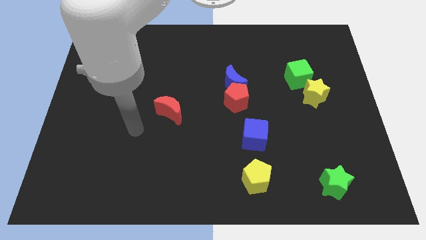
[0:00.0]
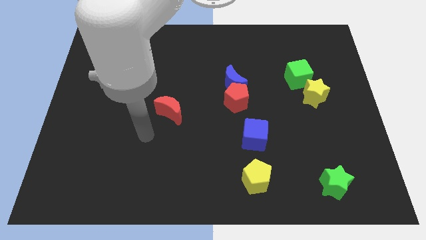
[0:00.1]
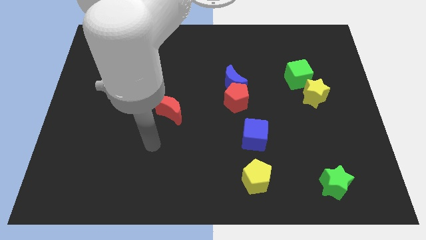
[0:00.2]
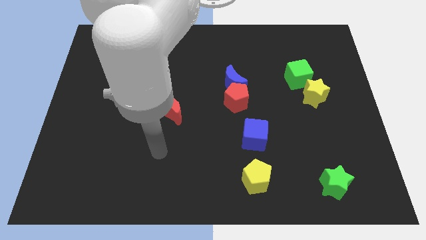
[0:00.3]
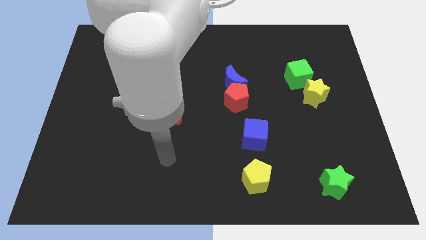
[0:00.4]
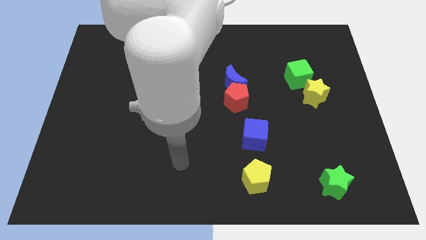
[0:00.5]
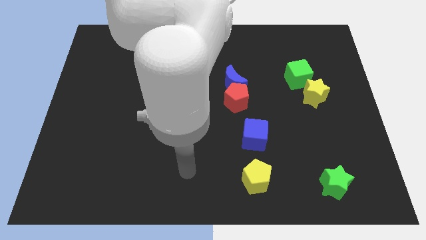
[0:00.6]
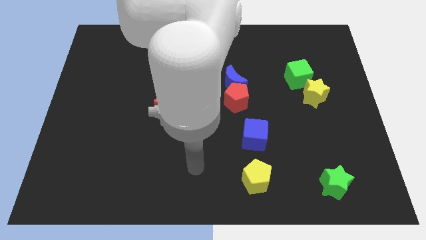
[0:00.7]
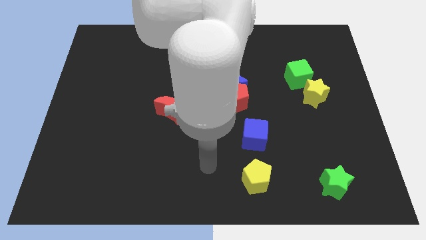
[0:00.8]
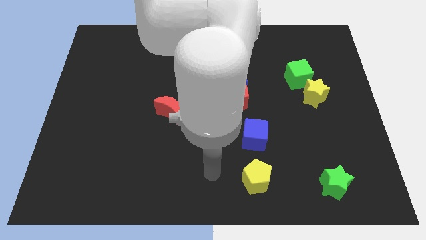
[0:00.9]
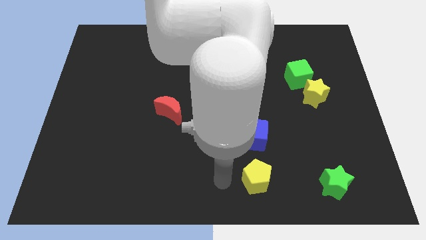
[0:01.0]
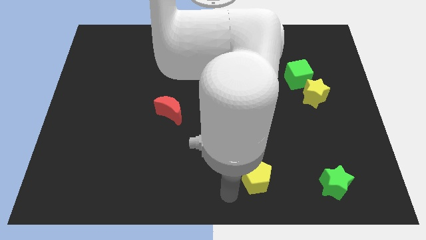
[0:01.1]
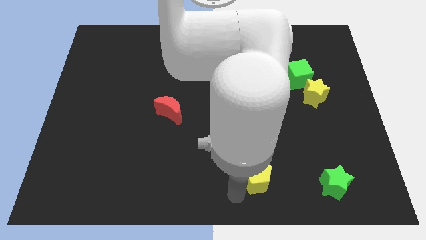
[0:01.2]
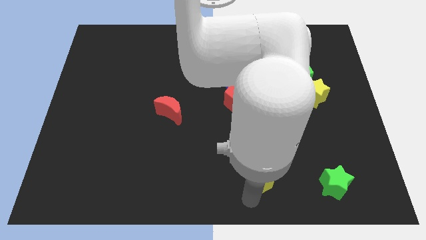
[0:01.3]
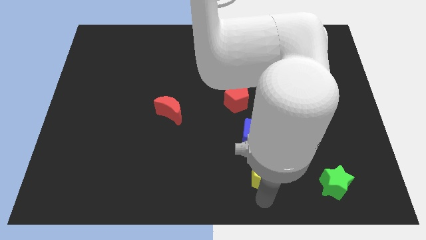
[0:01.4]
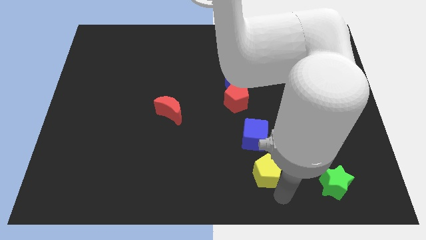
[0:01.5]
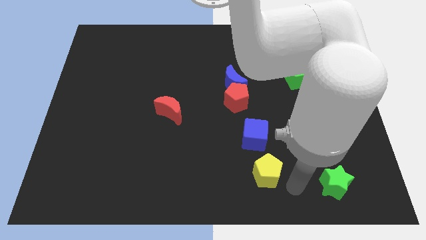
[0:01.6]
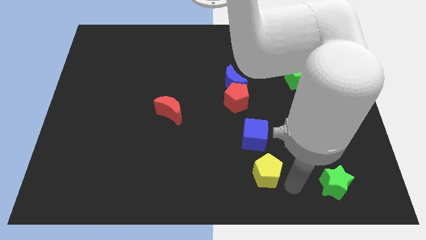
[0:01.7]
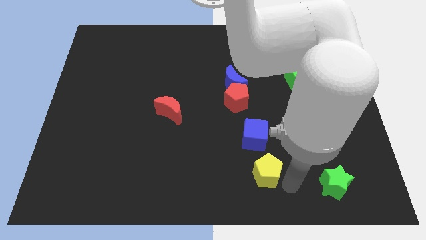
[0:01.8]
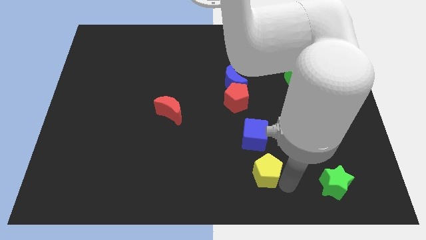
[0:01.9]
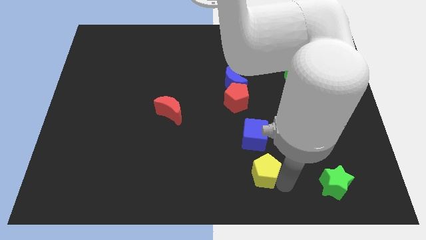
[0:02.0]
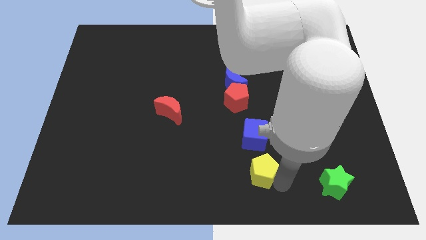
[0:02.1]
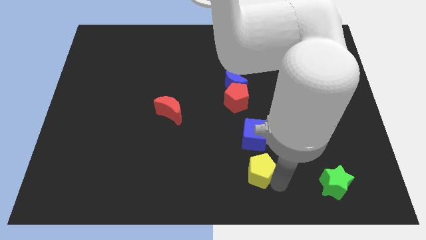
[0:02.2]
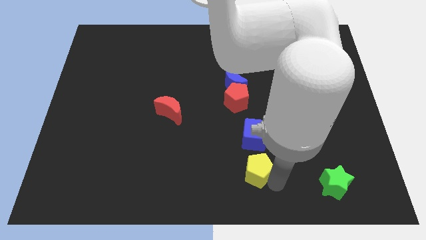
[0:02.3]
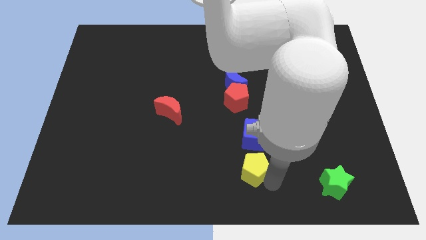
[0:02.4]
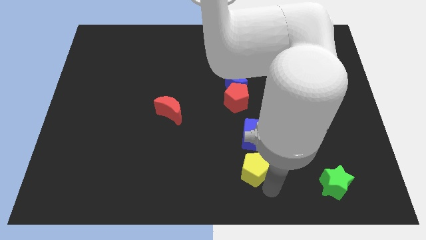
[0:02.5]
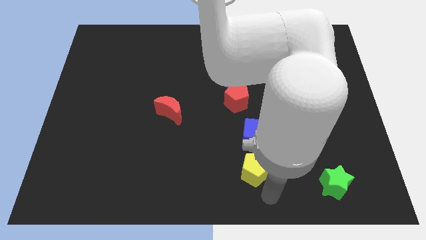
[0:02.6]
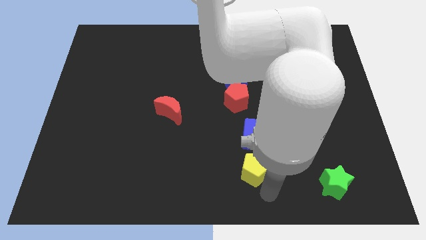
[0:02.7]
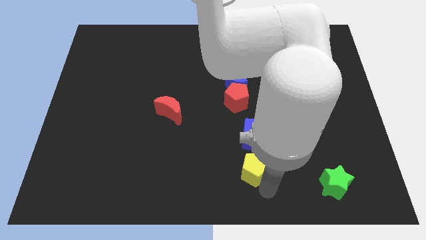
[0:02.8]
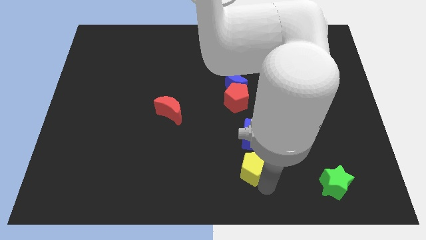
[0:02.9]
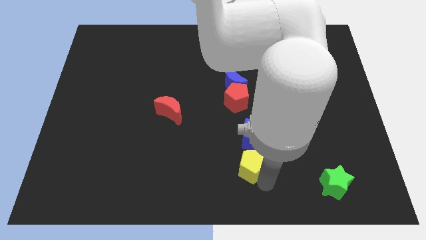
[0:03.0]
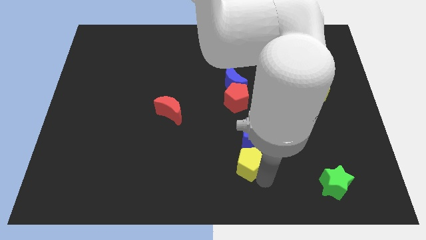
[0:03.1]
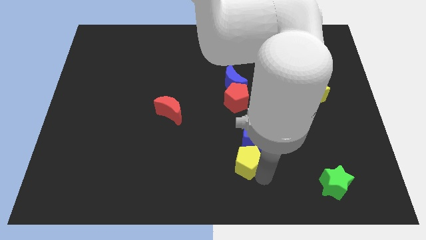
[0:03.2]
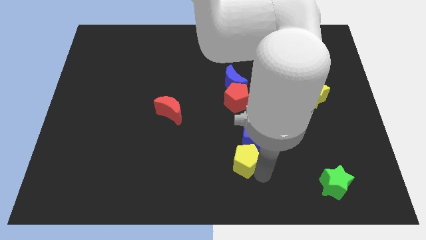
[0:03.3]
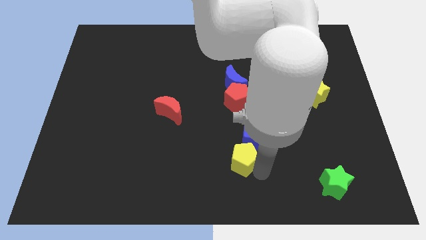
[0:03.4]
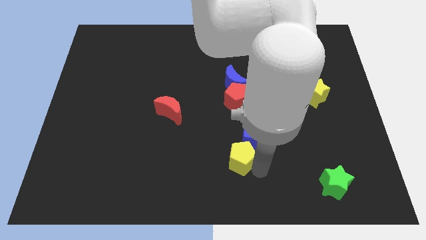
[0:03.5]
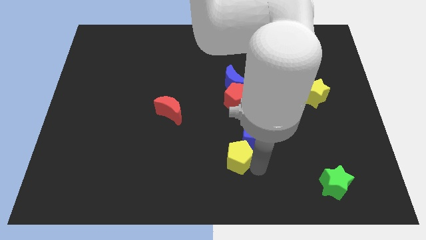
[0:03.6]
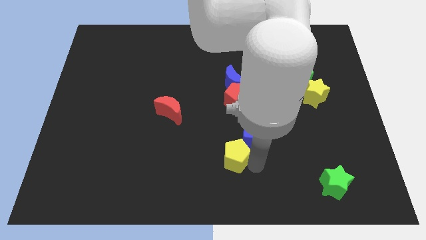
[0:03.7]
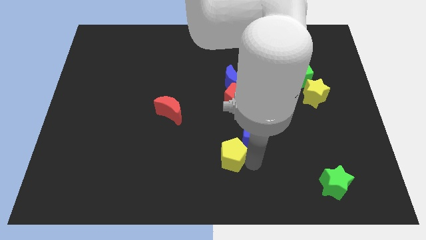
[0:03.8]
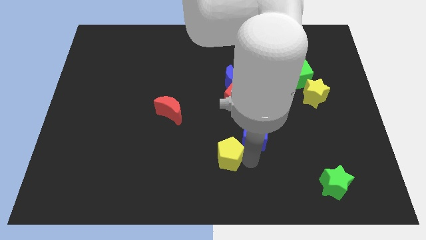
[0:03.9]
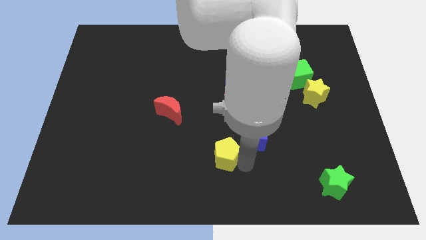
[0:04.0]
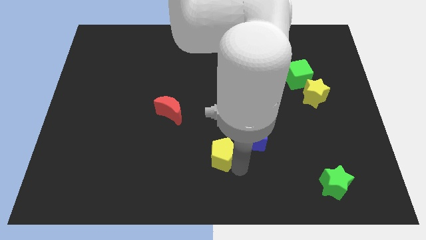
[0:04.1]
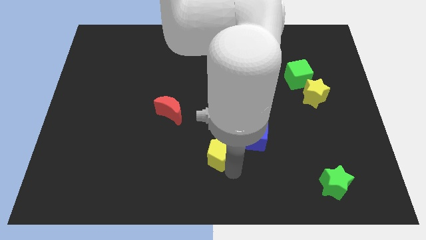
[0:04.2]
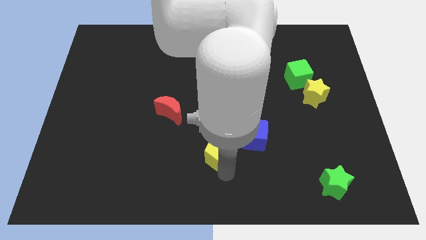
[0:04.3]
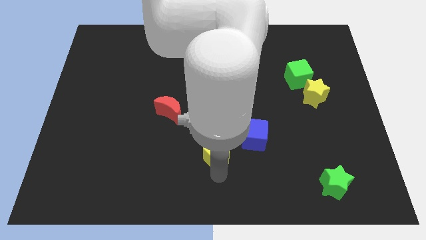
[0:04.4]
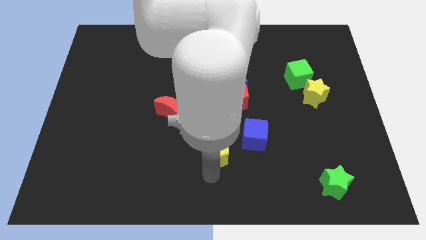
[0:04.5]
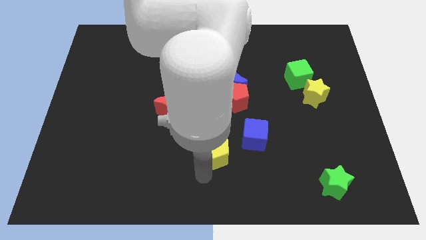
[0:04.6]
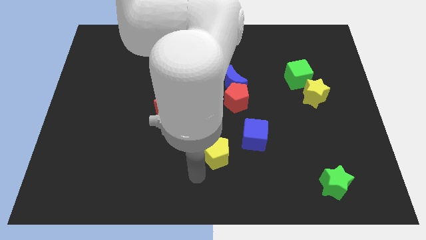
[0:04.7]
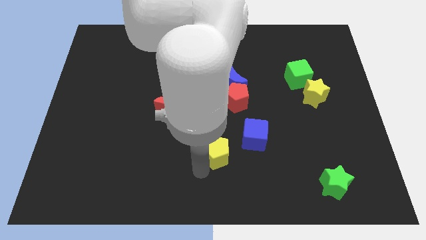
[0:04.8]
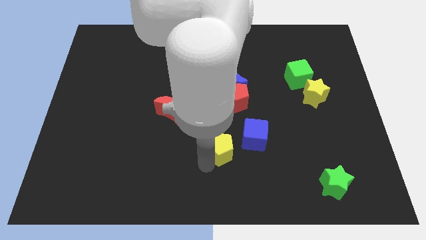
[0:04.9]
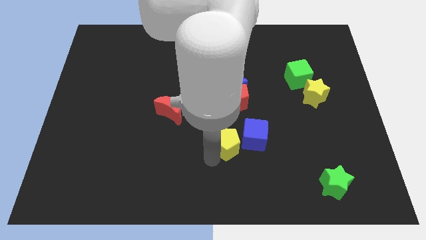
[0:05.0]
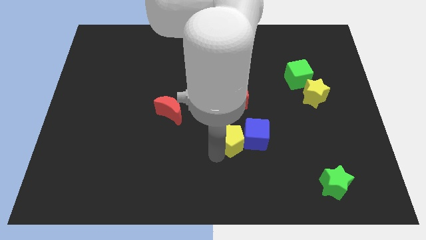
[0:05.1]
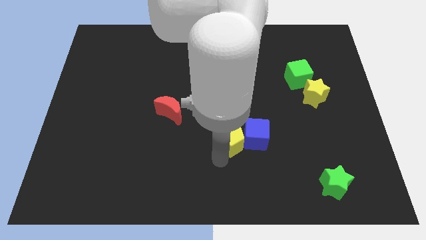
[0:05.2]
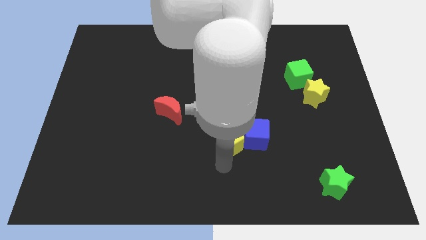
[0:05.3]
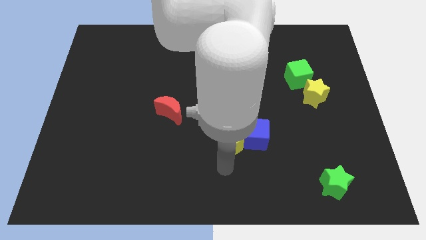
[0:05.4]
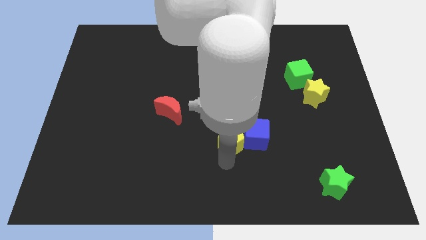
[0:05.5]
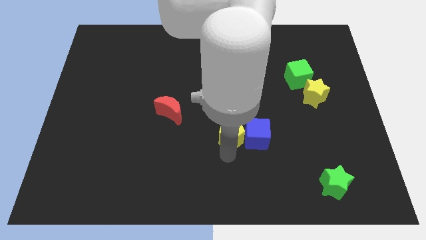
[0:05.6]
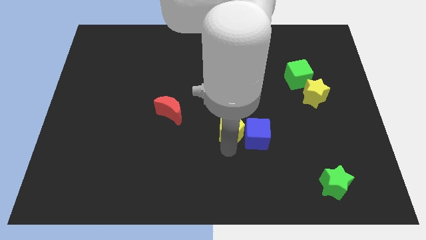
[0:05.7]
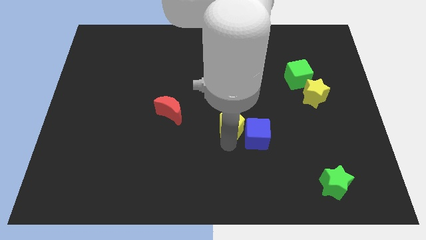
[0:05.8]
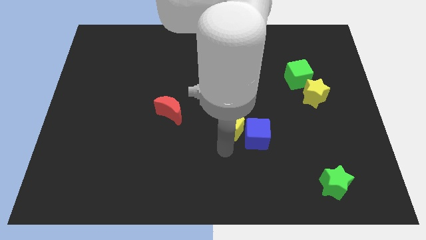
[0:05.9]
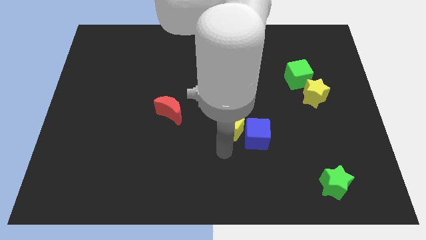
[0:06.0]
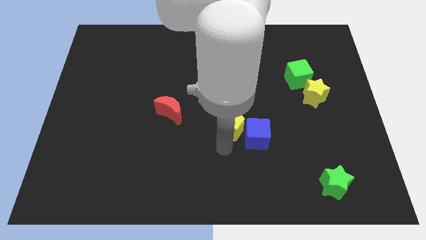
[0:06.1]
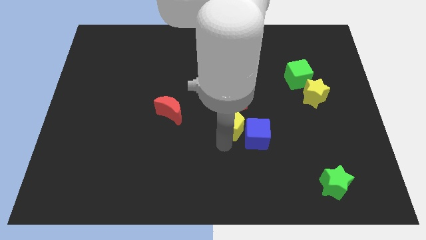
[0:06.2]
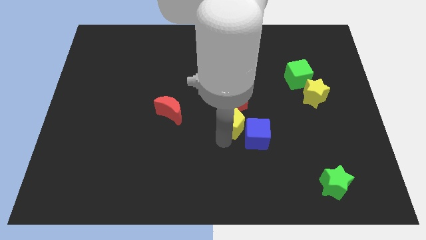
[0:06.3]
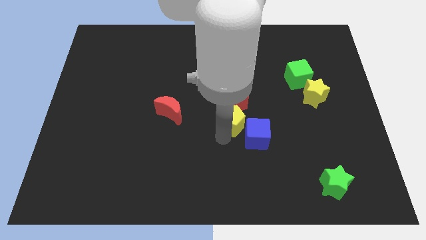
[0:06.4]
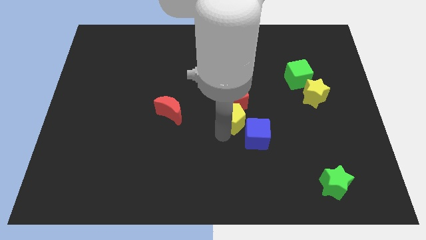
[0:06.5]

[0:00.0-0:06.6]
put the yellow pentagon close to the red pentagon

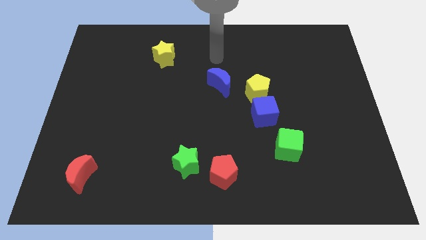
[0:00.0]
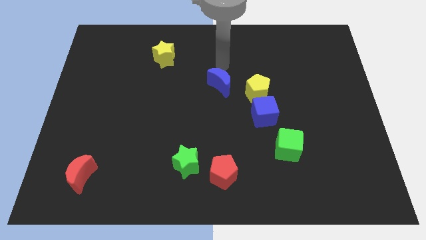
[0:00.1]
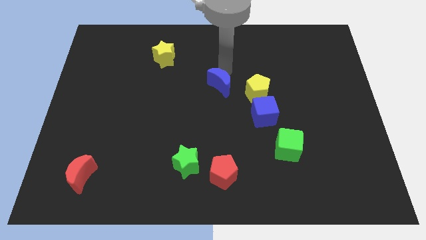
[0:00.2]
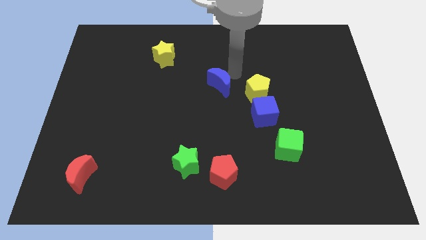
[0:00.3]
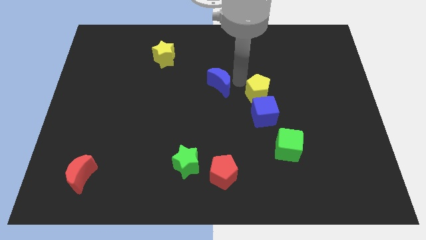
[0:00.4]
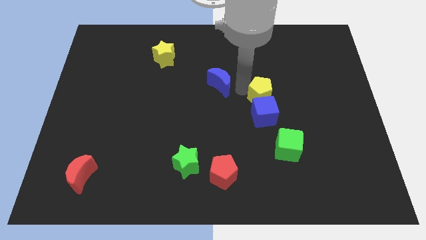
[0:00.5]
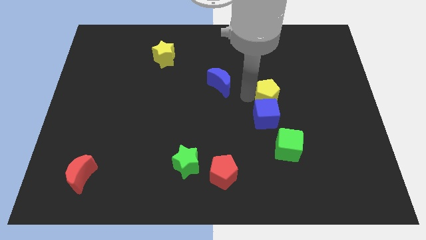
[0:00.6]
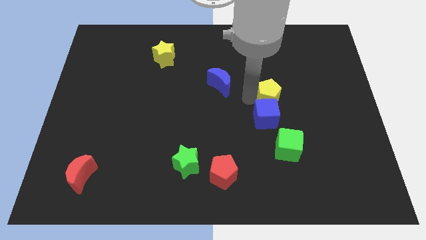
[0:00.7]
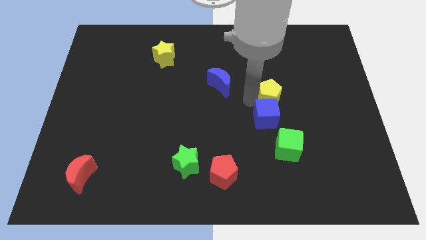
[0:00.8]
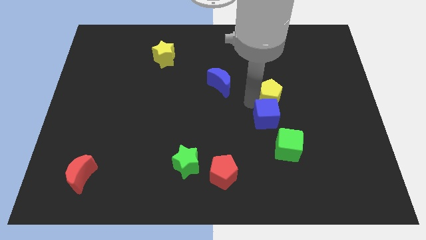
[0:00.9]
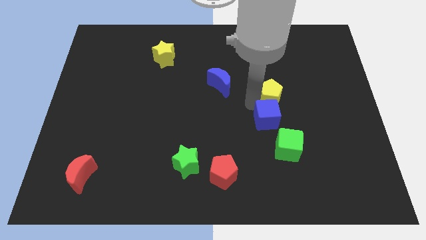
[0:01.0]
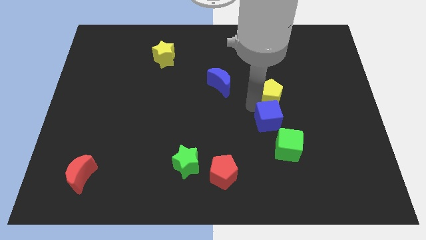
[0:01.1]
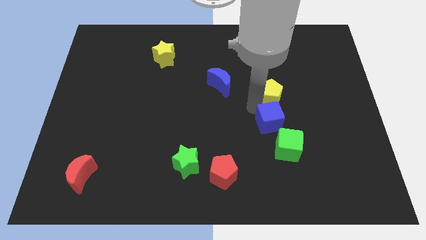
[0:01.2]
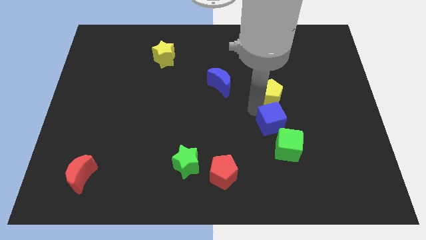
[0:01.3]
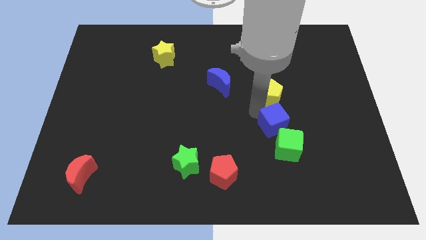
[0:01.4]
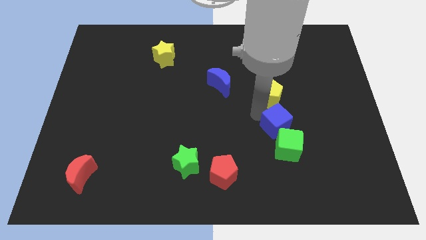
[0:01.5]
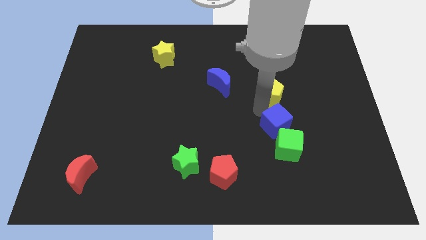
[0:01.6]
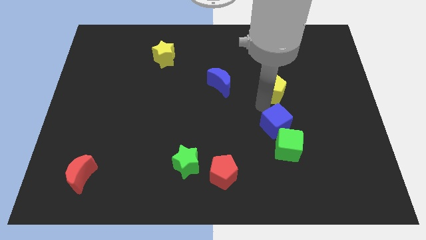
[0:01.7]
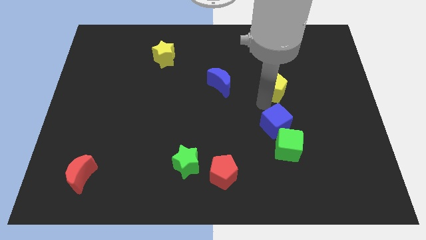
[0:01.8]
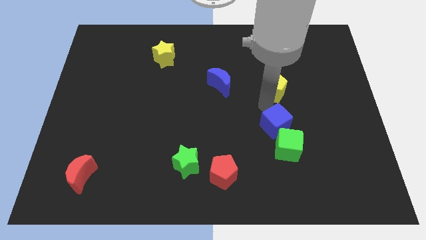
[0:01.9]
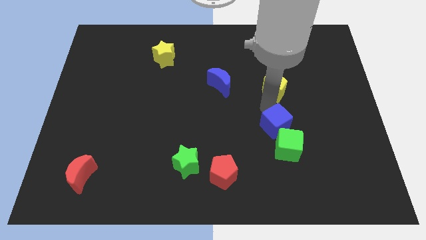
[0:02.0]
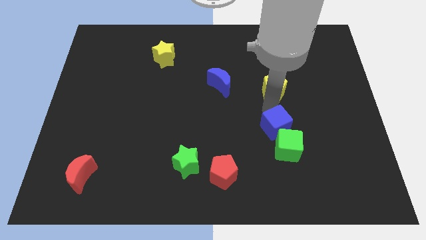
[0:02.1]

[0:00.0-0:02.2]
push the blue cube towards the green cube
